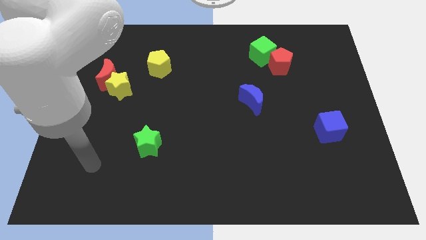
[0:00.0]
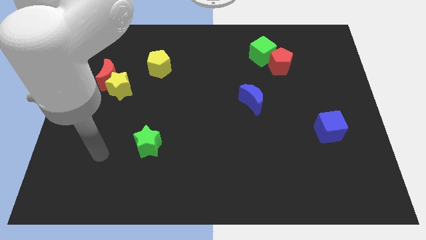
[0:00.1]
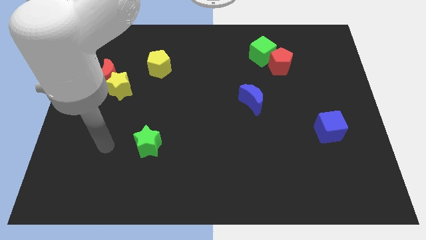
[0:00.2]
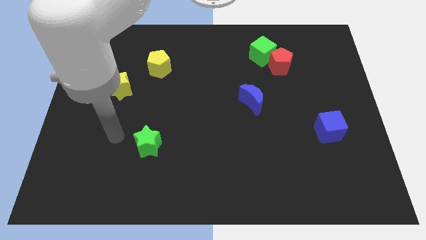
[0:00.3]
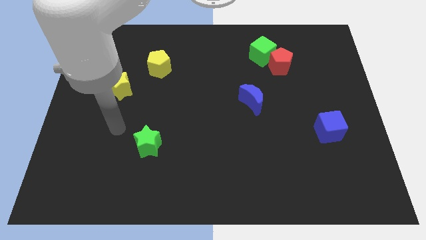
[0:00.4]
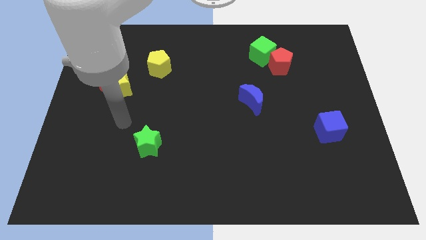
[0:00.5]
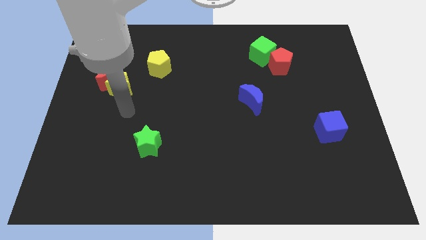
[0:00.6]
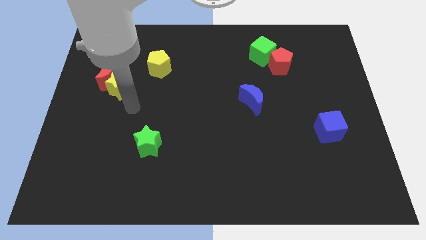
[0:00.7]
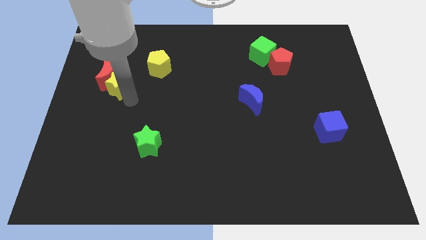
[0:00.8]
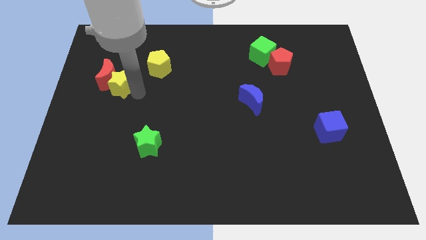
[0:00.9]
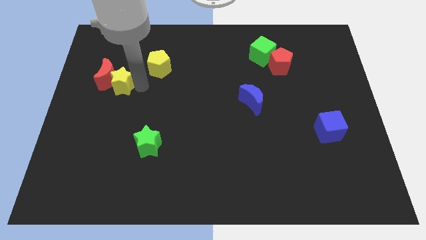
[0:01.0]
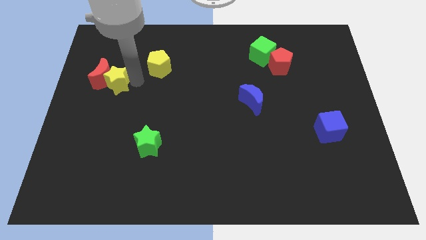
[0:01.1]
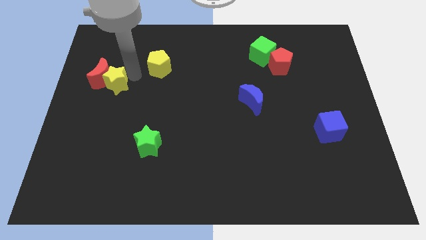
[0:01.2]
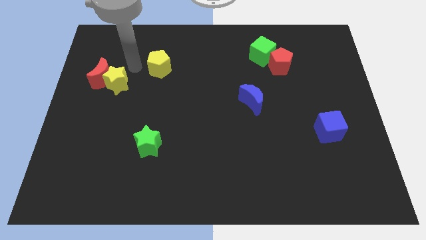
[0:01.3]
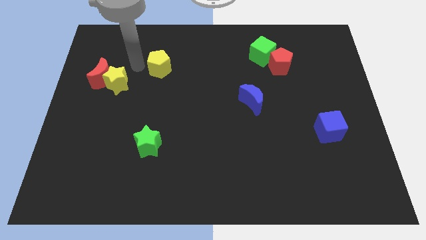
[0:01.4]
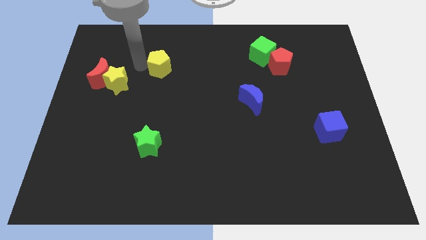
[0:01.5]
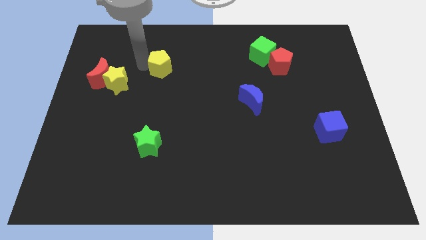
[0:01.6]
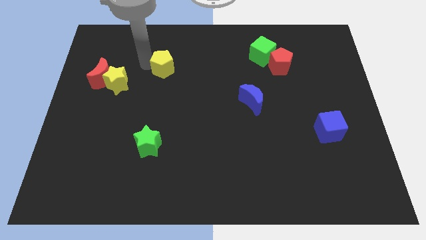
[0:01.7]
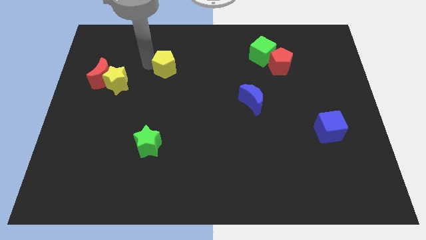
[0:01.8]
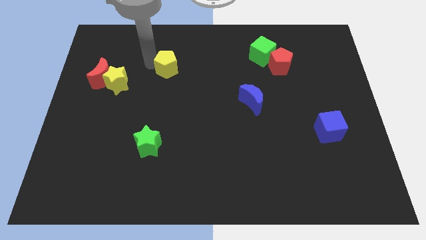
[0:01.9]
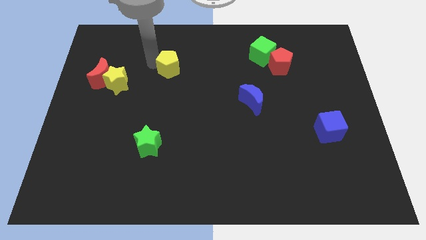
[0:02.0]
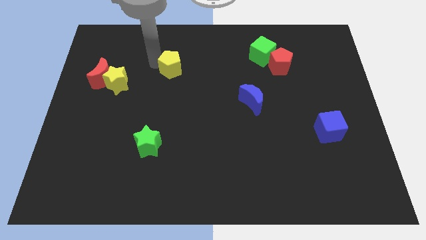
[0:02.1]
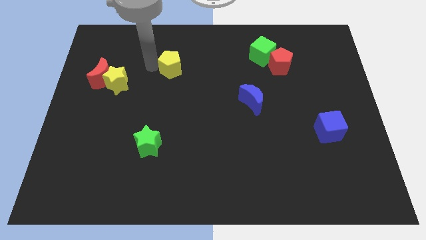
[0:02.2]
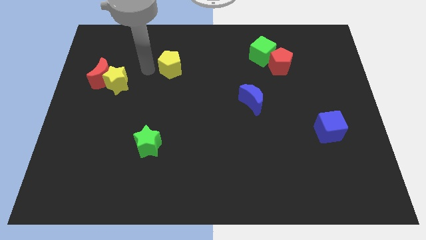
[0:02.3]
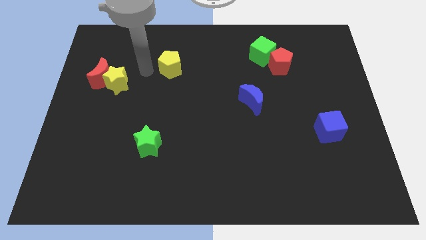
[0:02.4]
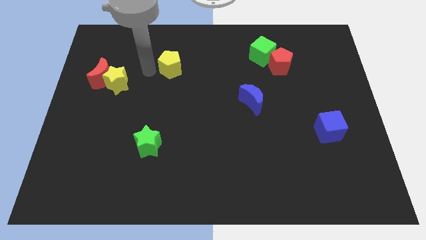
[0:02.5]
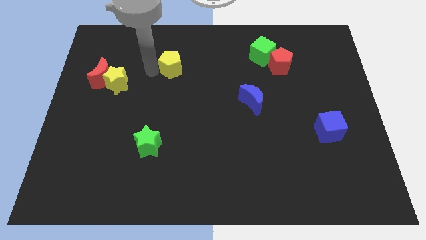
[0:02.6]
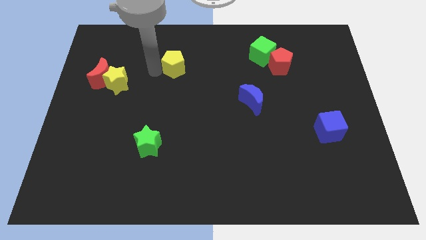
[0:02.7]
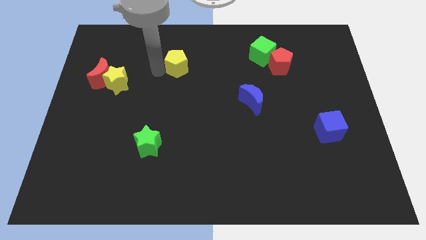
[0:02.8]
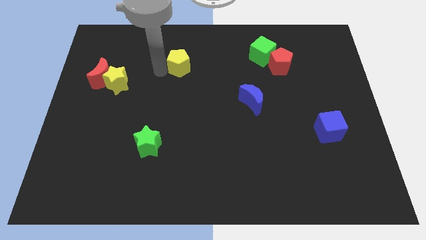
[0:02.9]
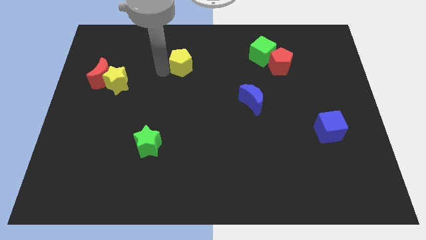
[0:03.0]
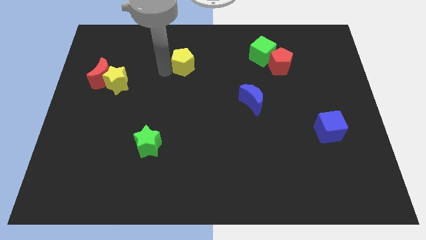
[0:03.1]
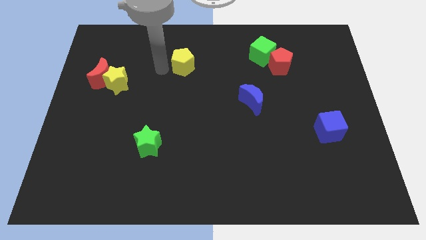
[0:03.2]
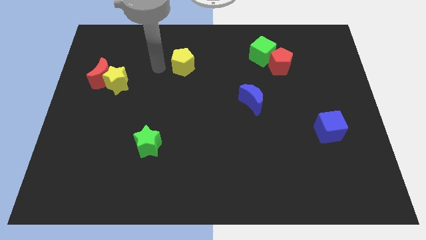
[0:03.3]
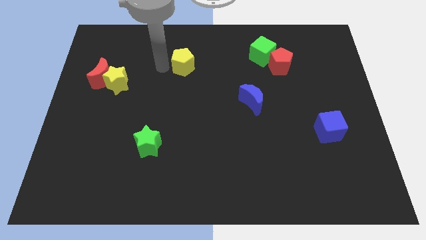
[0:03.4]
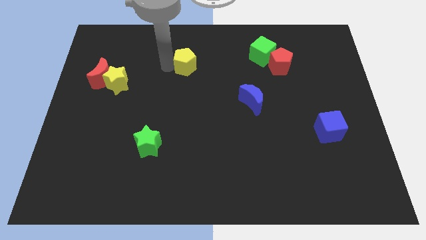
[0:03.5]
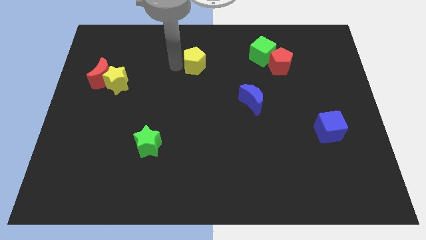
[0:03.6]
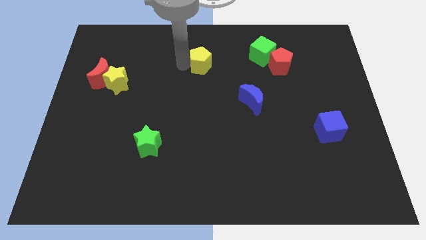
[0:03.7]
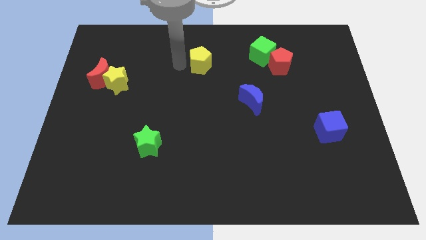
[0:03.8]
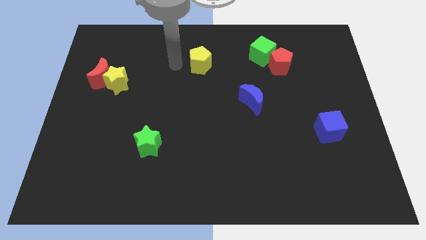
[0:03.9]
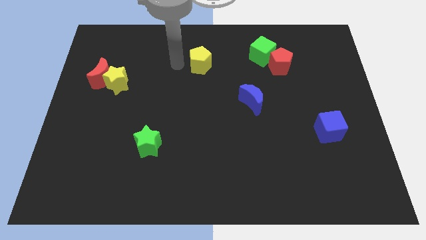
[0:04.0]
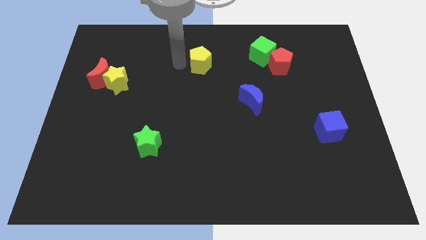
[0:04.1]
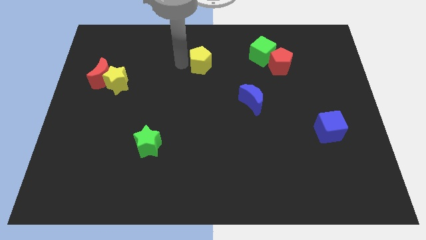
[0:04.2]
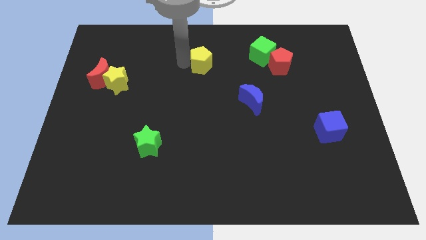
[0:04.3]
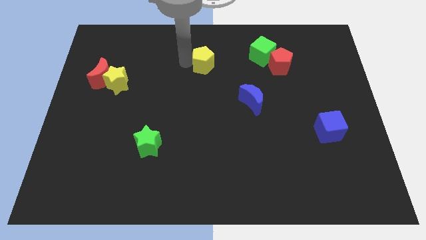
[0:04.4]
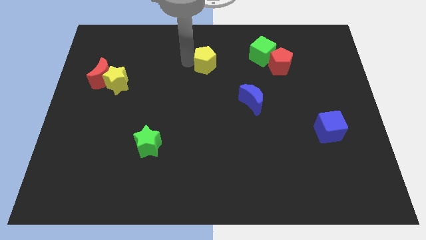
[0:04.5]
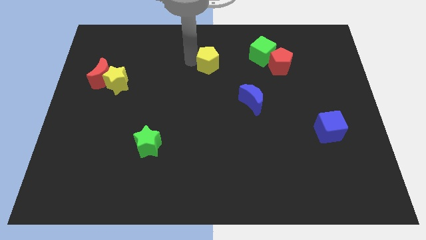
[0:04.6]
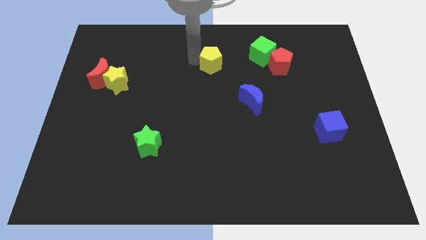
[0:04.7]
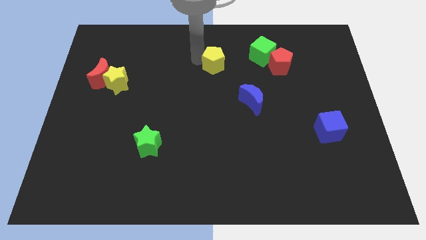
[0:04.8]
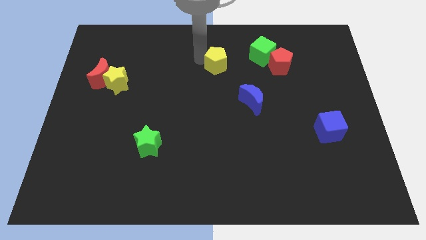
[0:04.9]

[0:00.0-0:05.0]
move the yellow pentagon to the left of the red pentagon

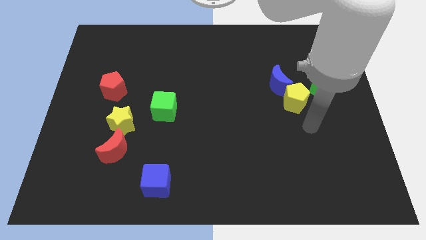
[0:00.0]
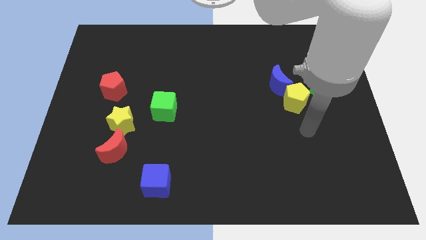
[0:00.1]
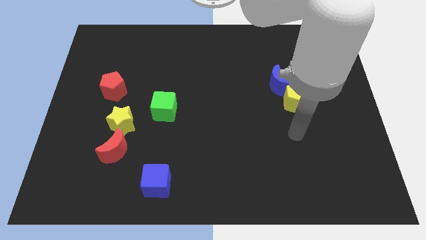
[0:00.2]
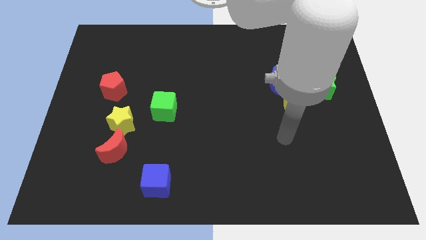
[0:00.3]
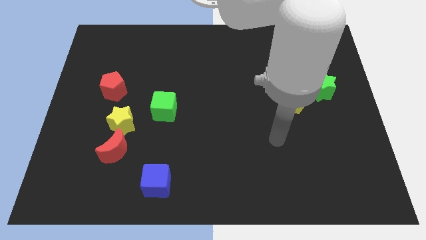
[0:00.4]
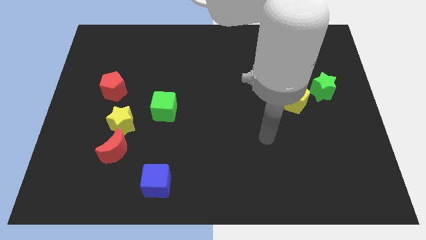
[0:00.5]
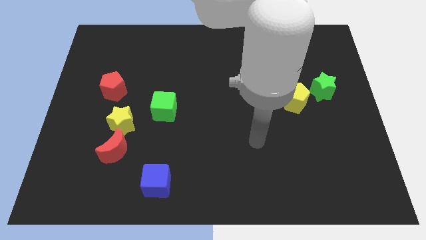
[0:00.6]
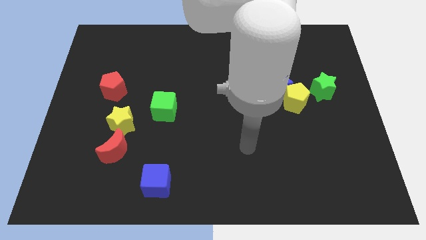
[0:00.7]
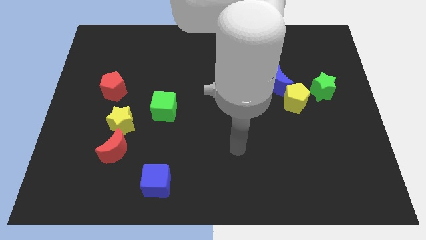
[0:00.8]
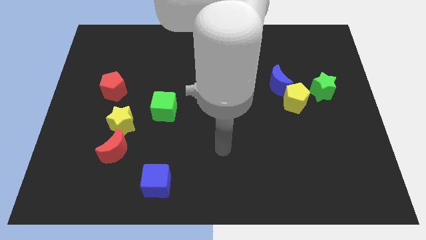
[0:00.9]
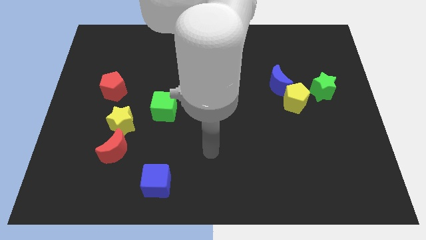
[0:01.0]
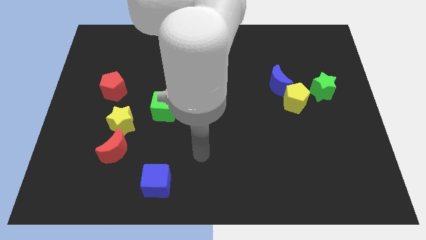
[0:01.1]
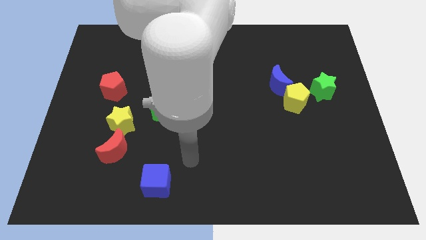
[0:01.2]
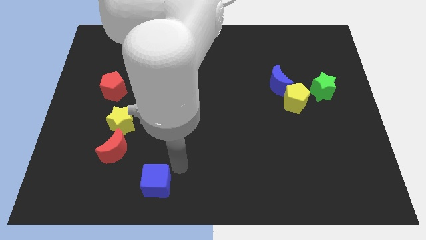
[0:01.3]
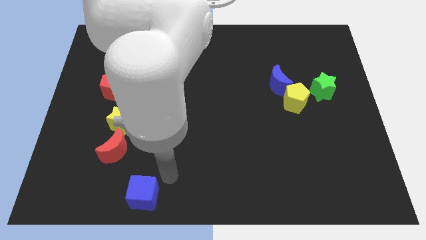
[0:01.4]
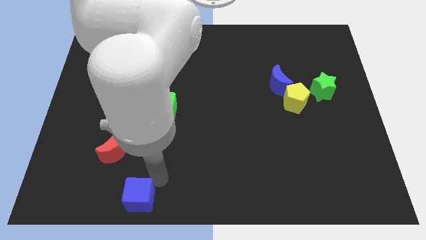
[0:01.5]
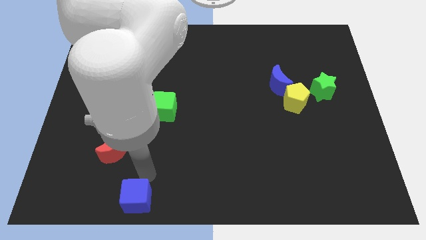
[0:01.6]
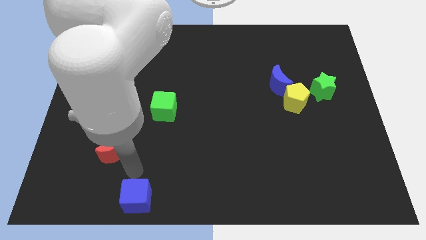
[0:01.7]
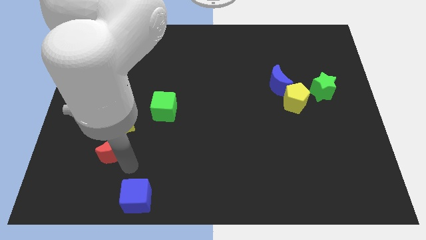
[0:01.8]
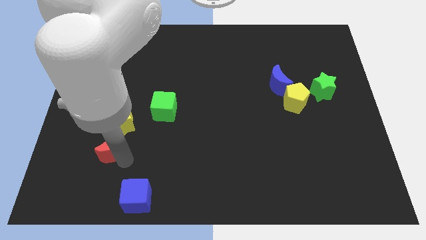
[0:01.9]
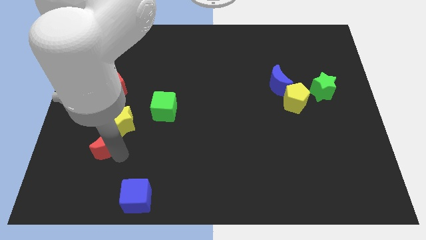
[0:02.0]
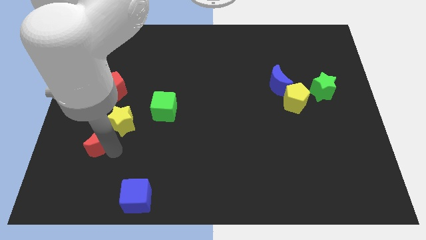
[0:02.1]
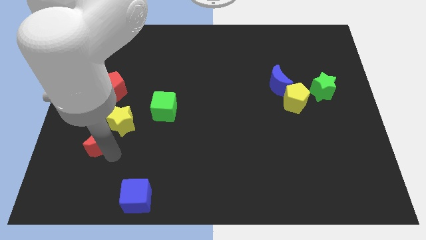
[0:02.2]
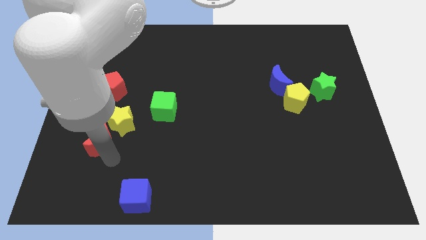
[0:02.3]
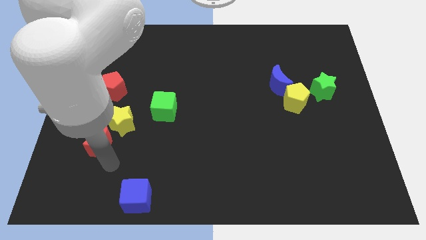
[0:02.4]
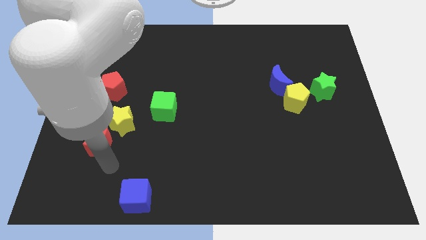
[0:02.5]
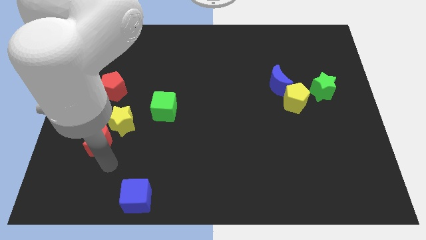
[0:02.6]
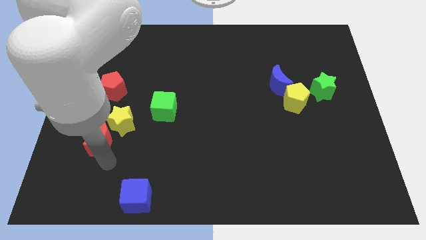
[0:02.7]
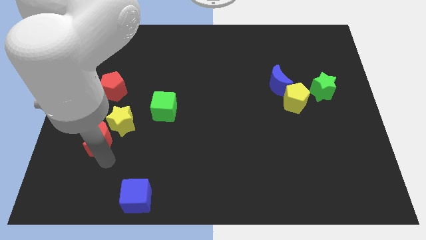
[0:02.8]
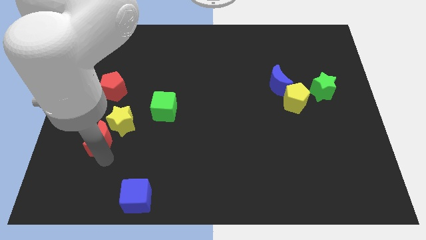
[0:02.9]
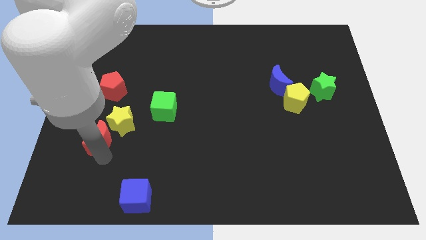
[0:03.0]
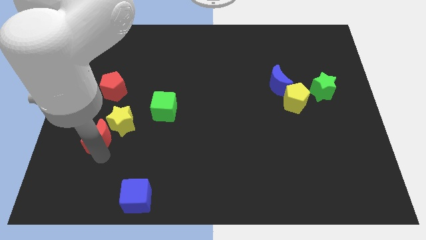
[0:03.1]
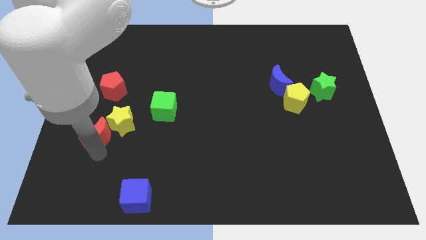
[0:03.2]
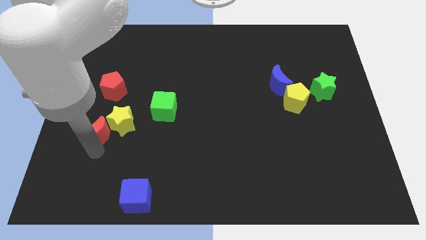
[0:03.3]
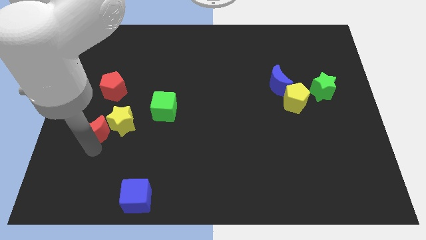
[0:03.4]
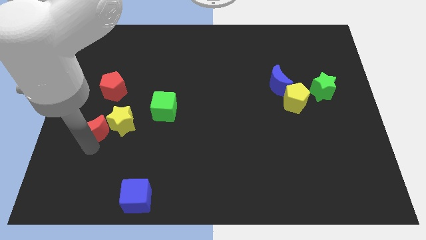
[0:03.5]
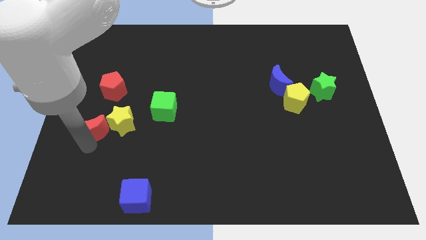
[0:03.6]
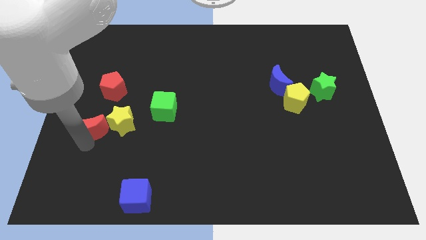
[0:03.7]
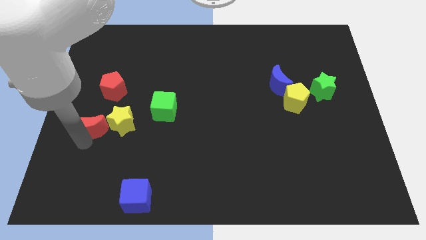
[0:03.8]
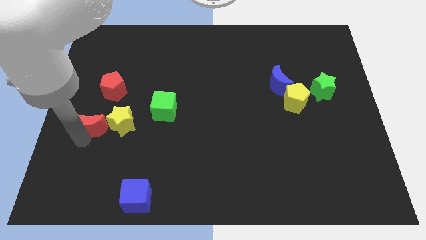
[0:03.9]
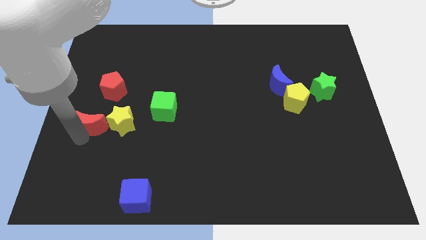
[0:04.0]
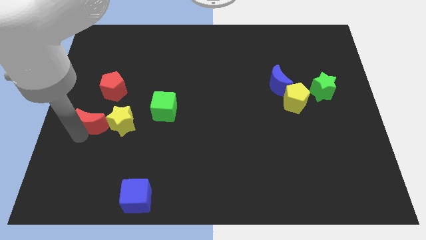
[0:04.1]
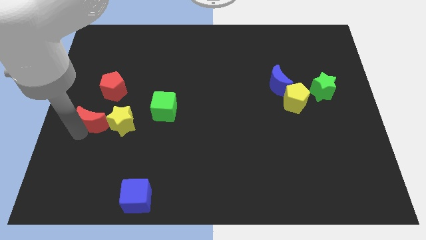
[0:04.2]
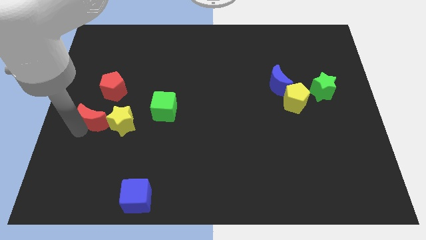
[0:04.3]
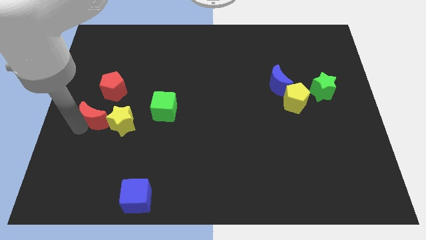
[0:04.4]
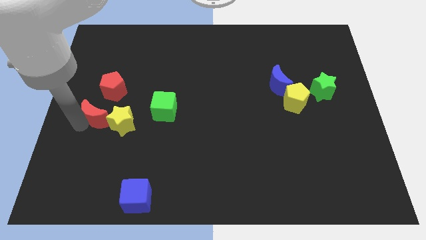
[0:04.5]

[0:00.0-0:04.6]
move the red moon to the left side of the green cube
